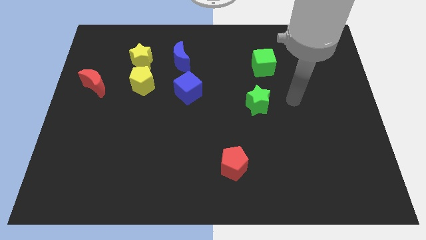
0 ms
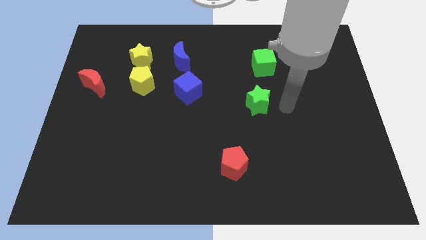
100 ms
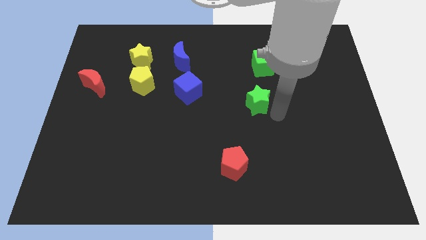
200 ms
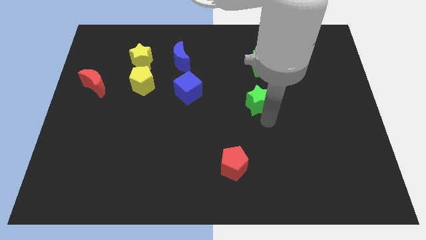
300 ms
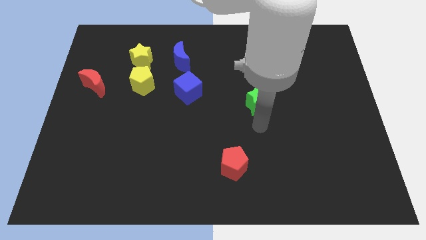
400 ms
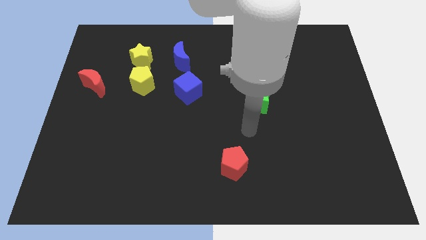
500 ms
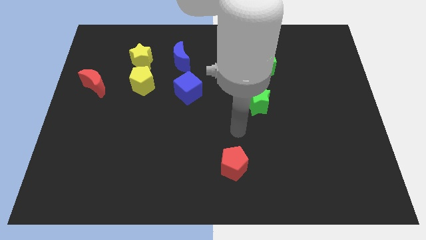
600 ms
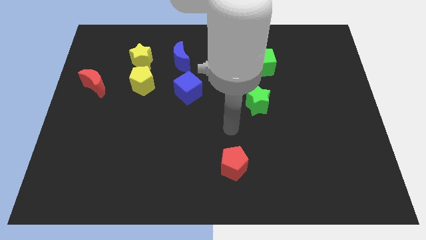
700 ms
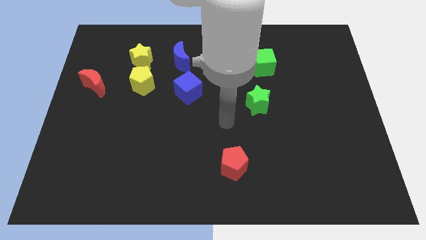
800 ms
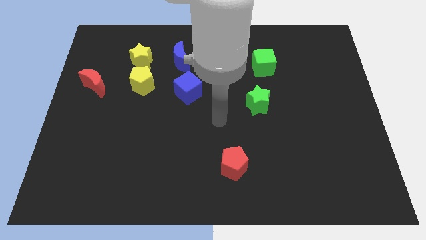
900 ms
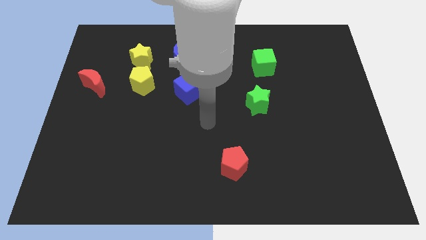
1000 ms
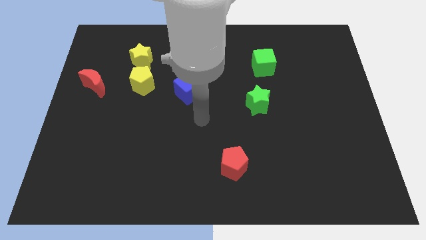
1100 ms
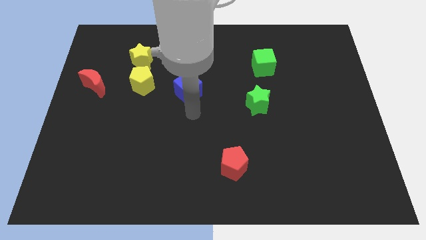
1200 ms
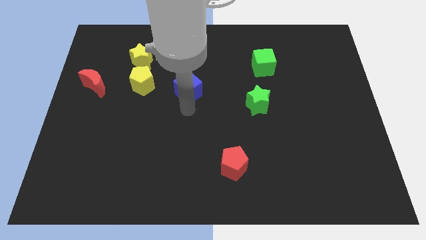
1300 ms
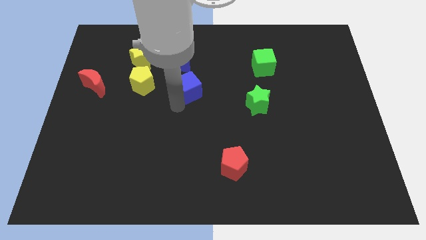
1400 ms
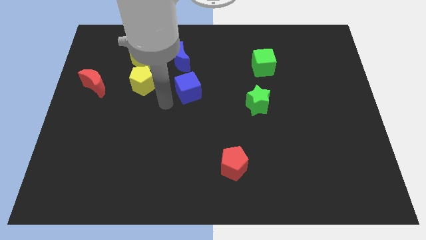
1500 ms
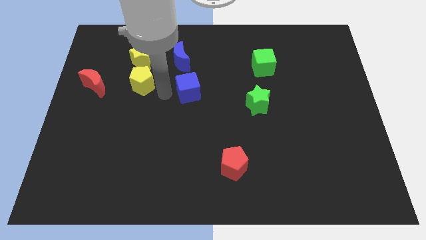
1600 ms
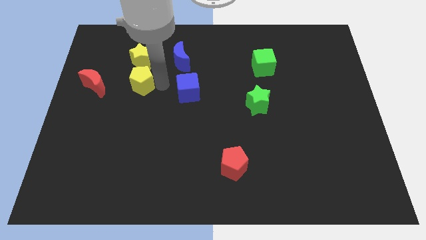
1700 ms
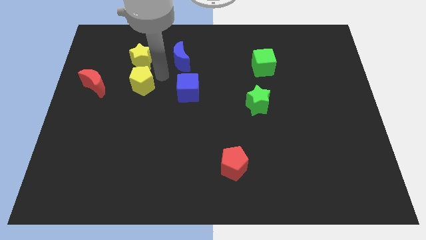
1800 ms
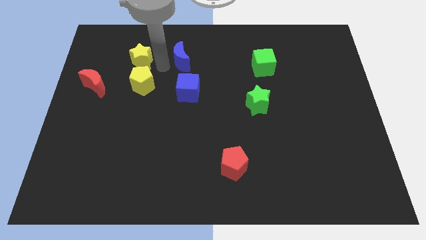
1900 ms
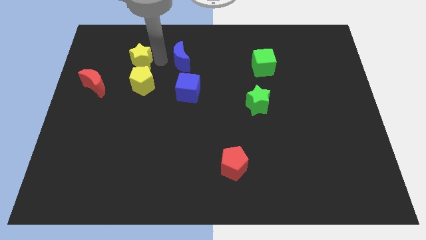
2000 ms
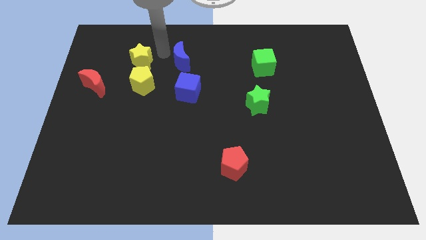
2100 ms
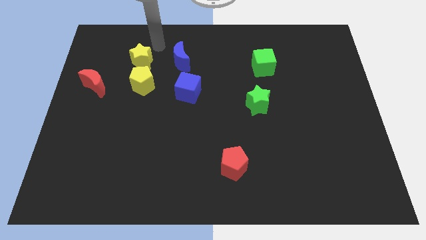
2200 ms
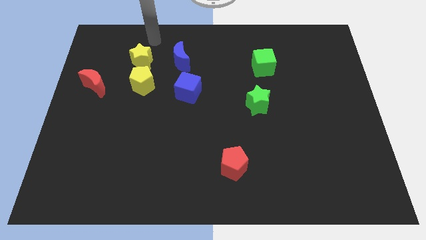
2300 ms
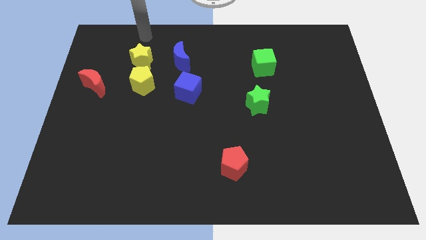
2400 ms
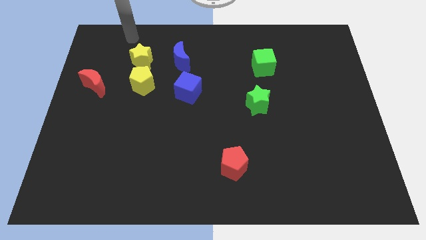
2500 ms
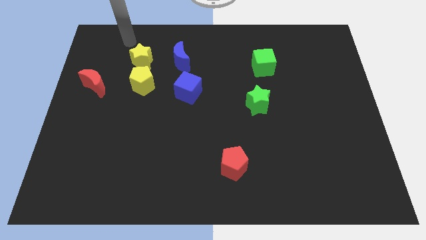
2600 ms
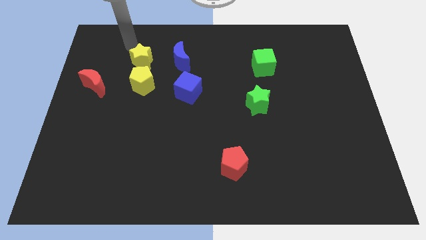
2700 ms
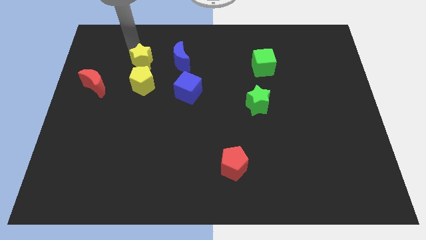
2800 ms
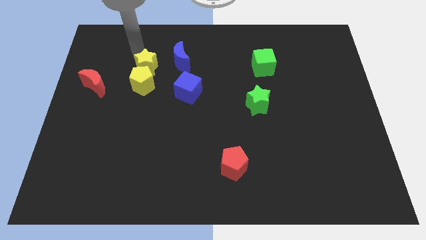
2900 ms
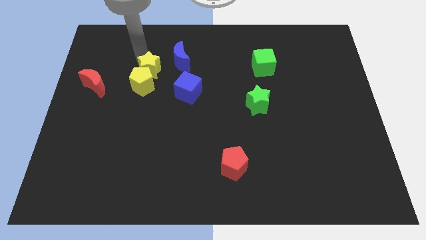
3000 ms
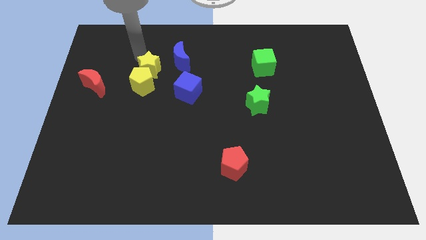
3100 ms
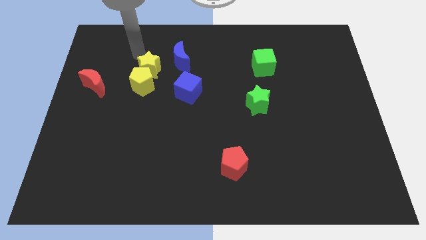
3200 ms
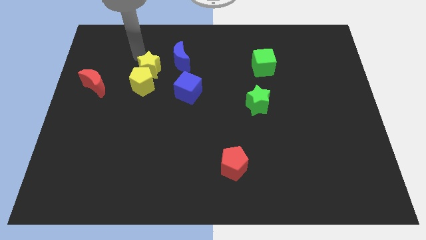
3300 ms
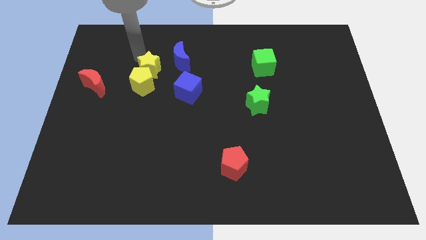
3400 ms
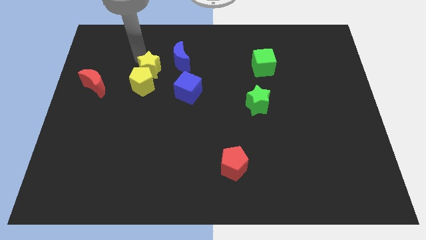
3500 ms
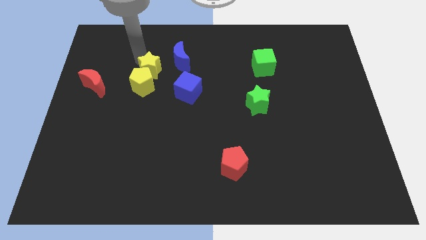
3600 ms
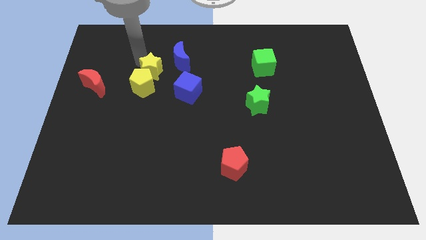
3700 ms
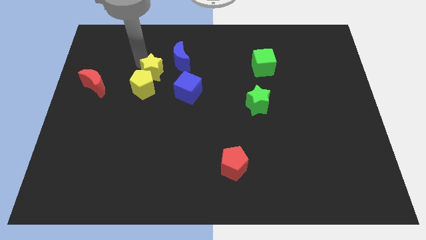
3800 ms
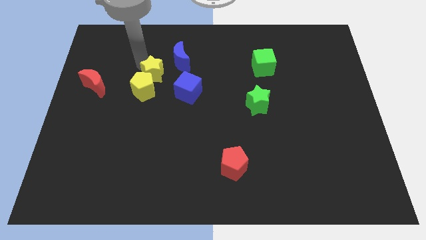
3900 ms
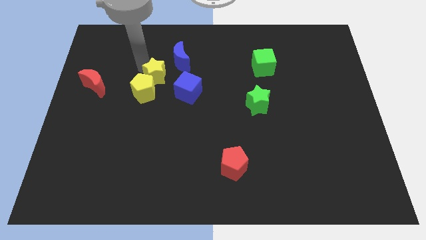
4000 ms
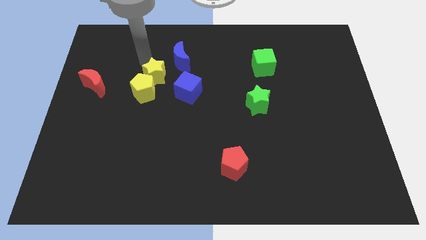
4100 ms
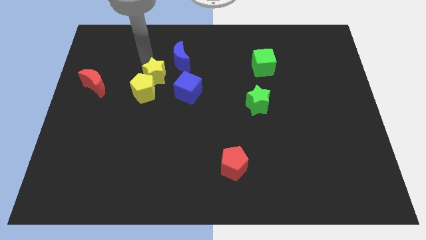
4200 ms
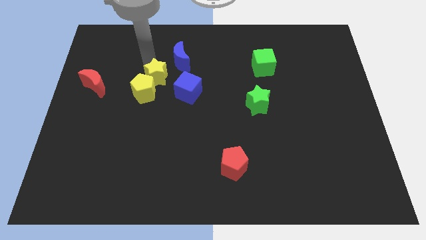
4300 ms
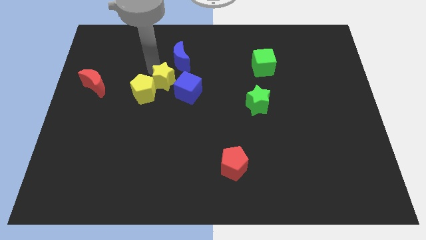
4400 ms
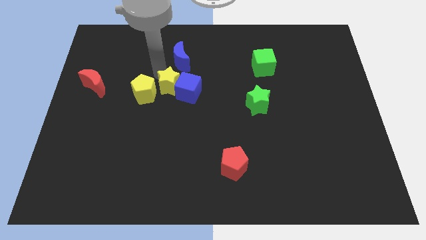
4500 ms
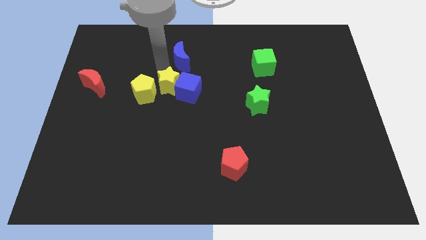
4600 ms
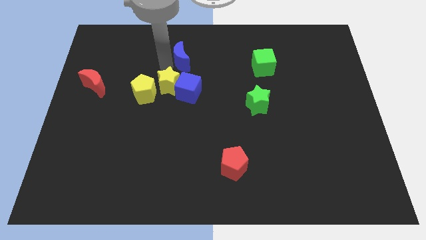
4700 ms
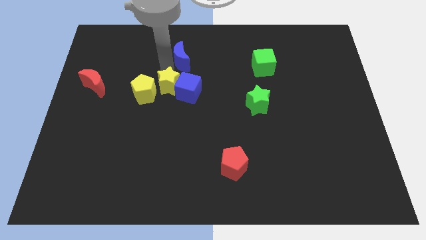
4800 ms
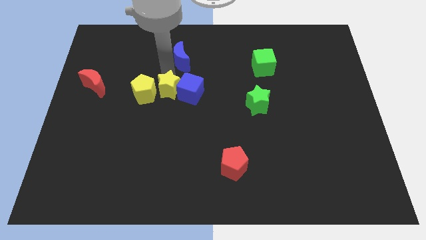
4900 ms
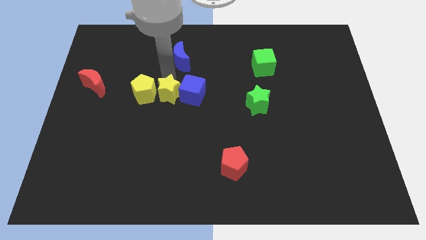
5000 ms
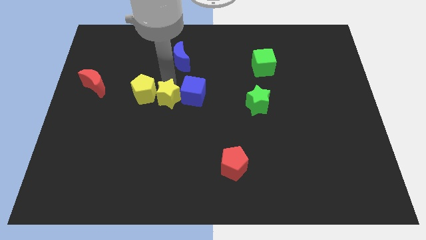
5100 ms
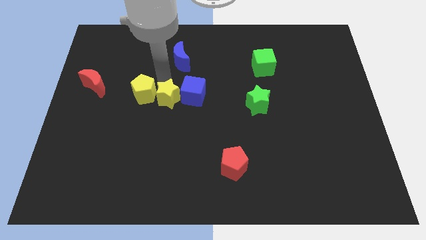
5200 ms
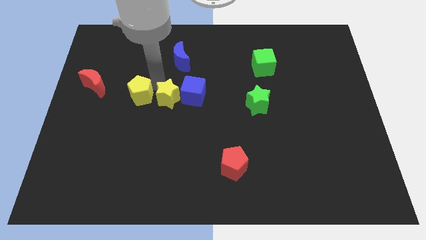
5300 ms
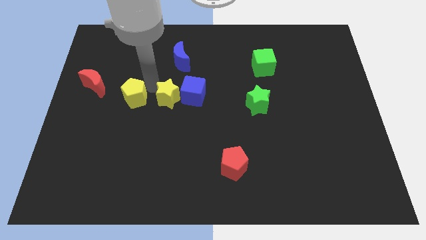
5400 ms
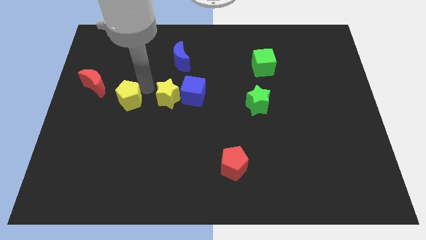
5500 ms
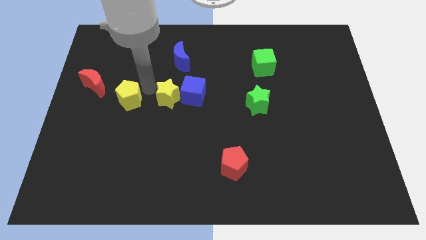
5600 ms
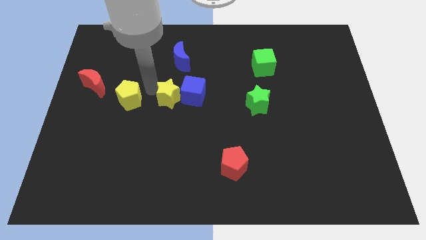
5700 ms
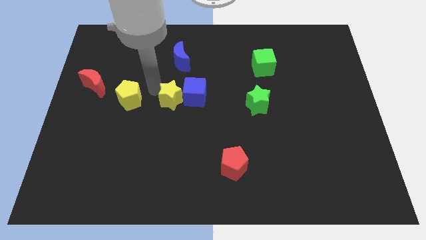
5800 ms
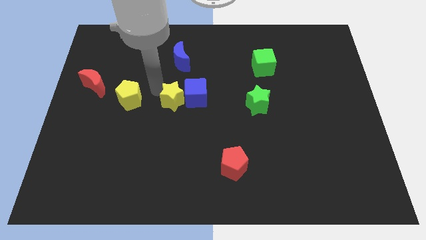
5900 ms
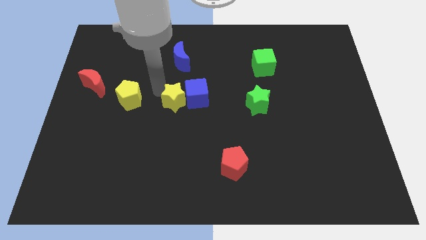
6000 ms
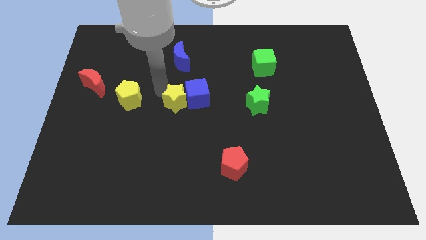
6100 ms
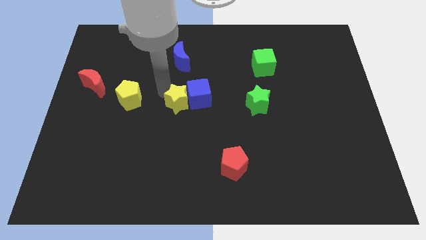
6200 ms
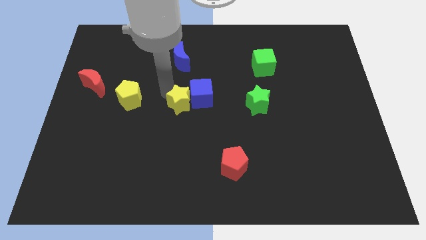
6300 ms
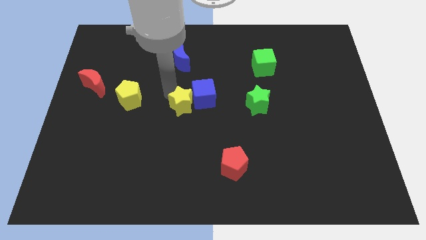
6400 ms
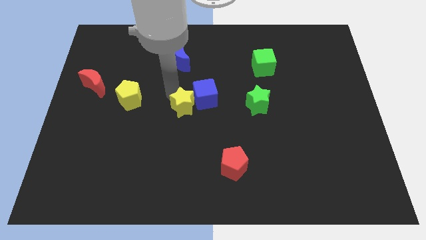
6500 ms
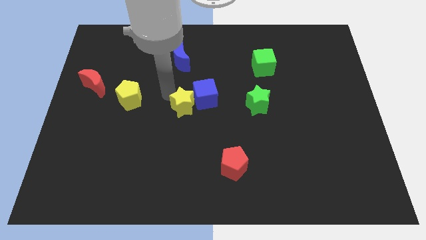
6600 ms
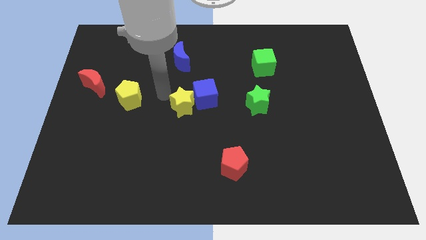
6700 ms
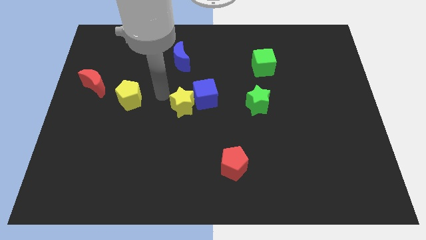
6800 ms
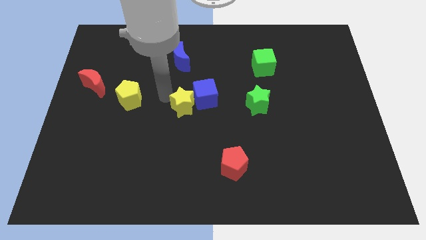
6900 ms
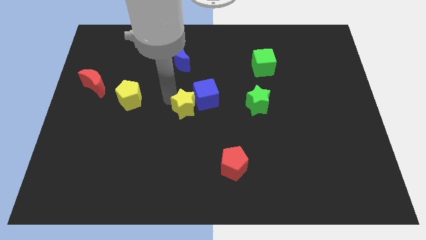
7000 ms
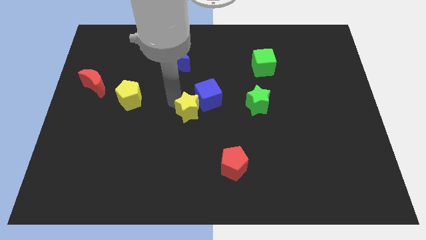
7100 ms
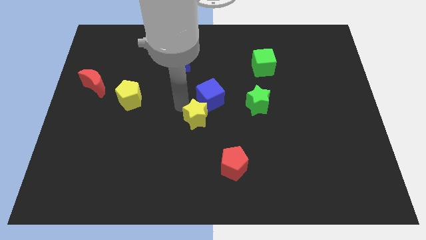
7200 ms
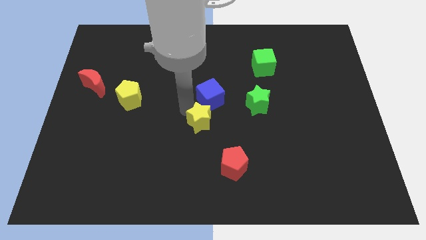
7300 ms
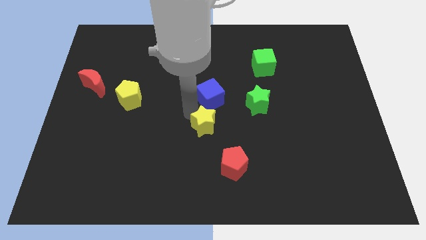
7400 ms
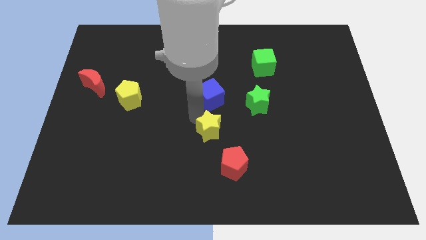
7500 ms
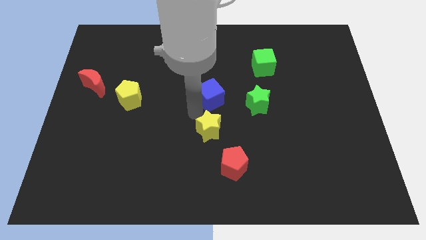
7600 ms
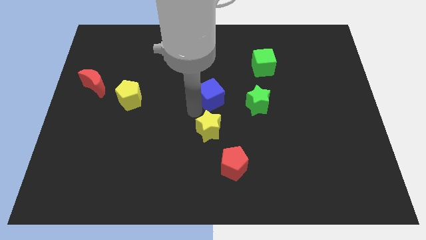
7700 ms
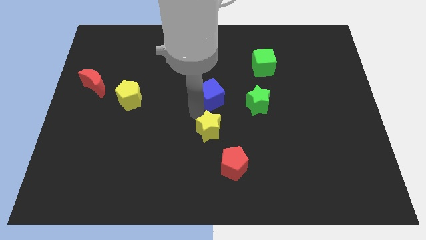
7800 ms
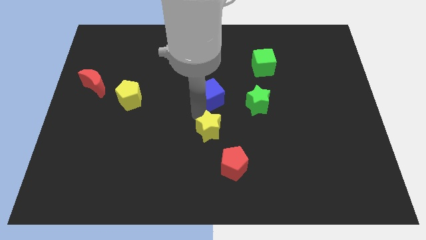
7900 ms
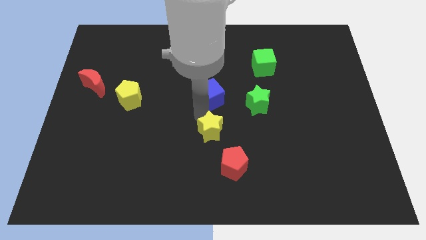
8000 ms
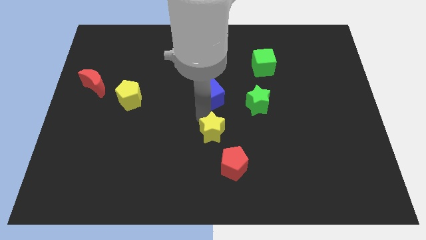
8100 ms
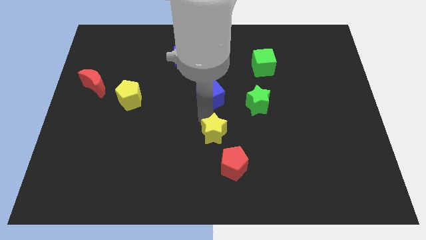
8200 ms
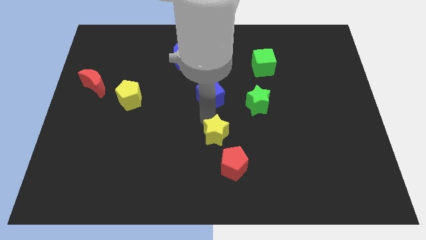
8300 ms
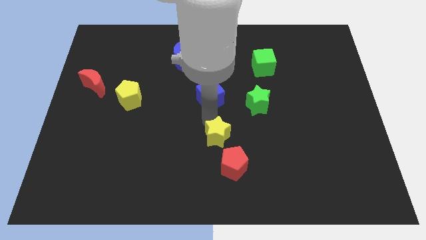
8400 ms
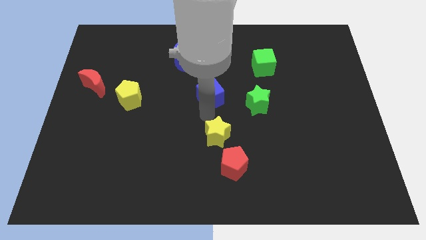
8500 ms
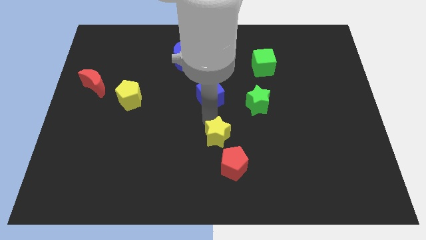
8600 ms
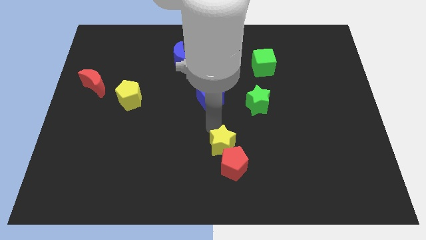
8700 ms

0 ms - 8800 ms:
put the yellow star to the red pentagon
